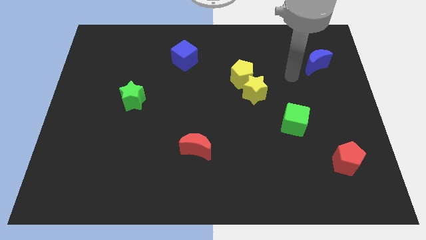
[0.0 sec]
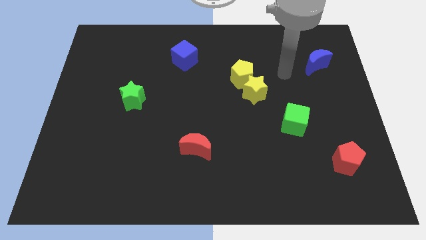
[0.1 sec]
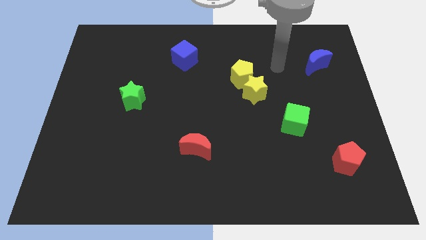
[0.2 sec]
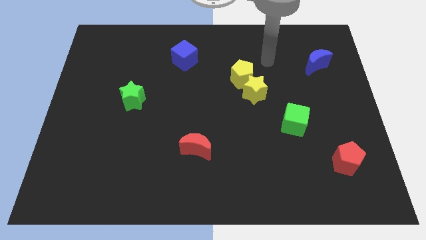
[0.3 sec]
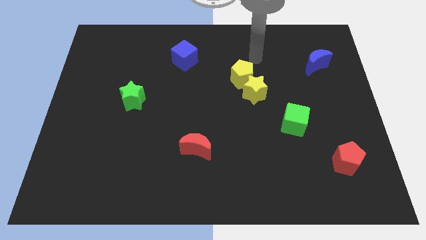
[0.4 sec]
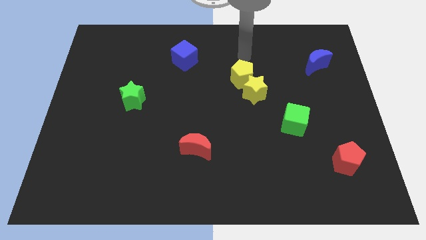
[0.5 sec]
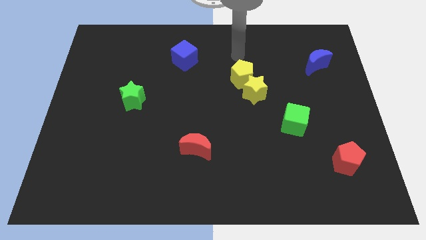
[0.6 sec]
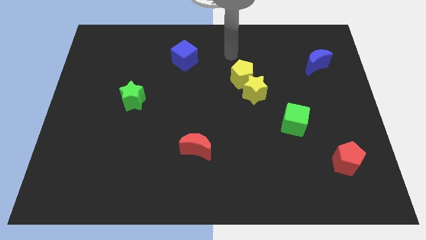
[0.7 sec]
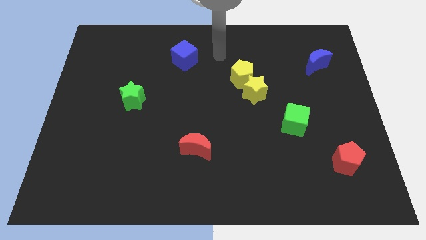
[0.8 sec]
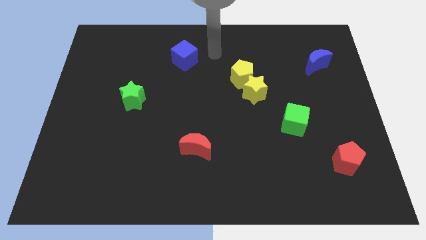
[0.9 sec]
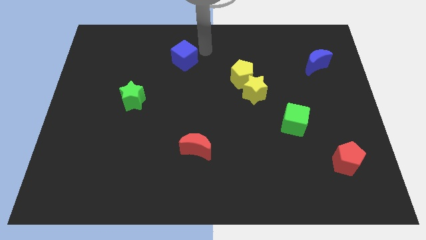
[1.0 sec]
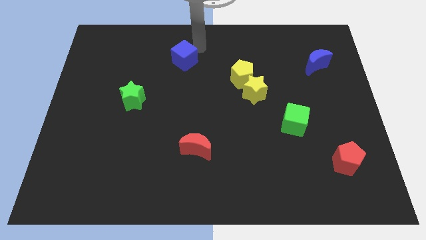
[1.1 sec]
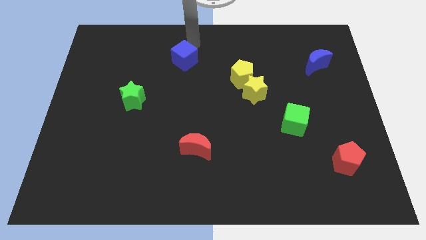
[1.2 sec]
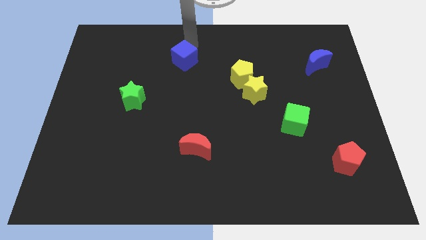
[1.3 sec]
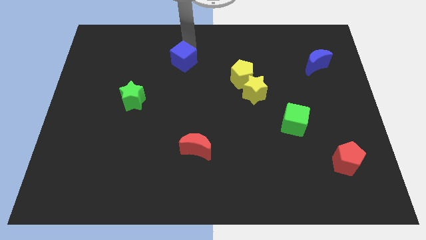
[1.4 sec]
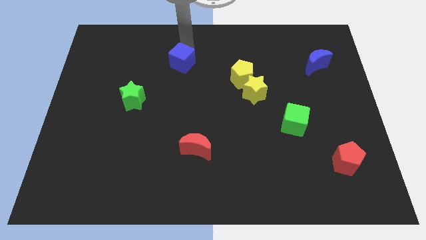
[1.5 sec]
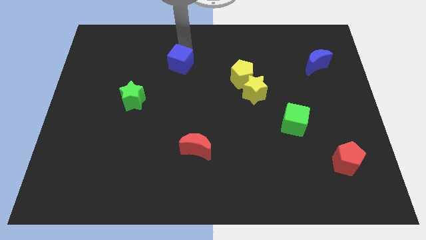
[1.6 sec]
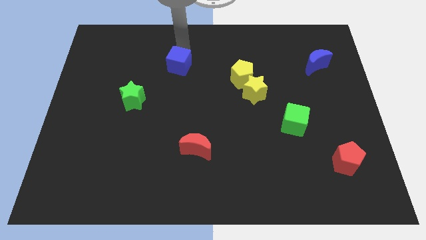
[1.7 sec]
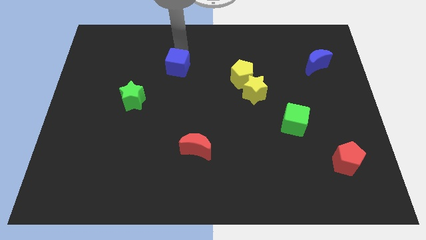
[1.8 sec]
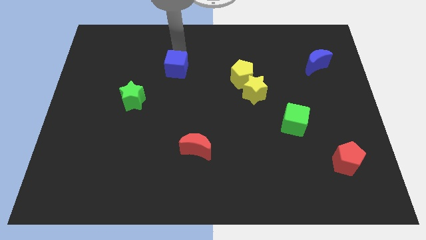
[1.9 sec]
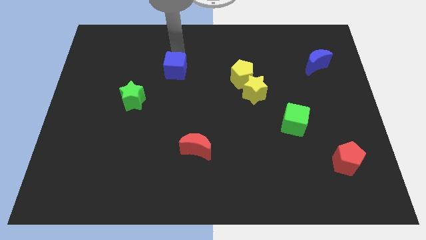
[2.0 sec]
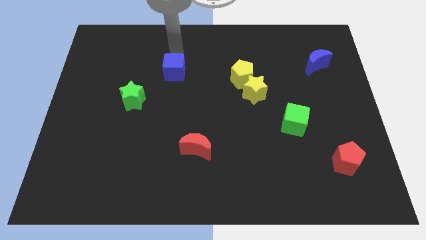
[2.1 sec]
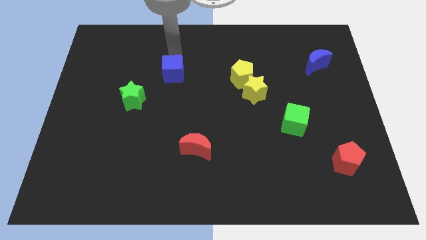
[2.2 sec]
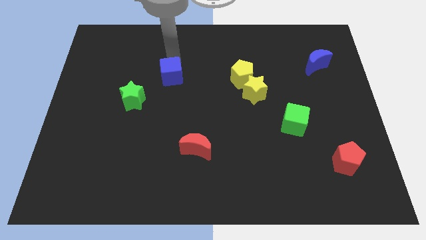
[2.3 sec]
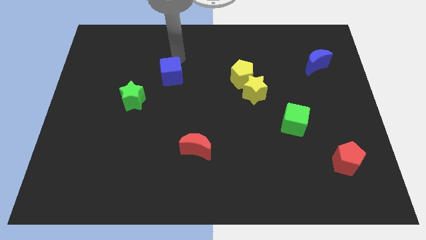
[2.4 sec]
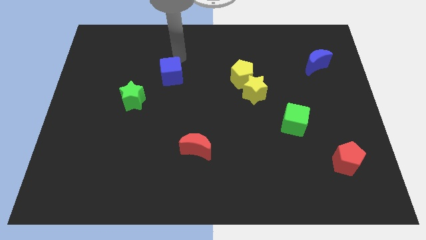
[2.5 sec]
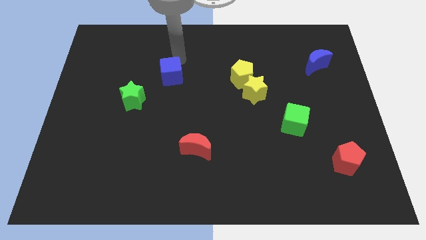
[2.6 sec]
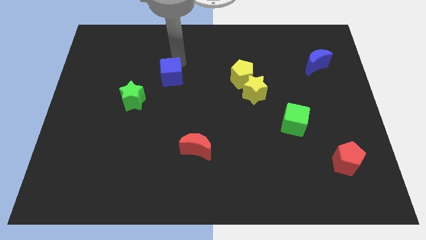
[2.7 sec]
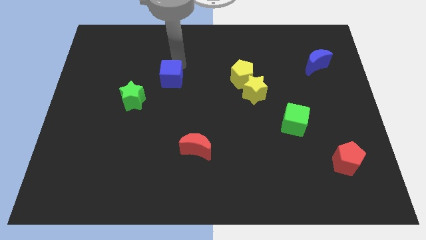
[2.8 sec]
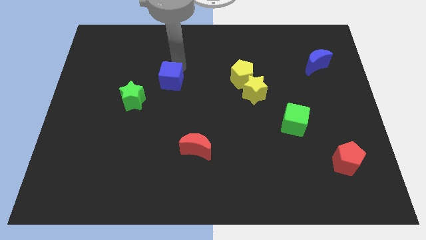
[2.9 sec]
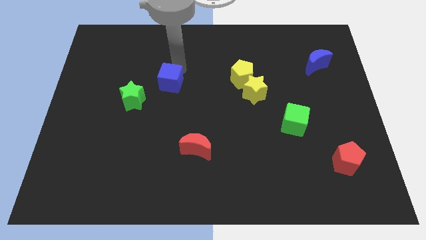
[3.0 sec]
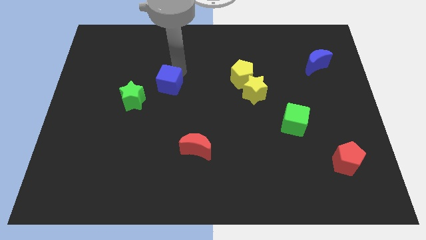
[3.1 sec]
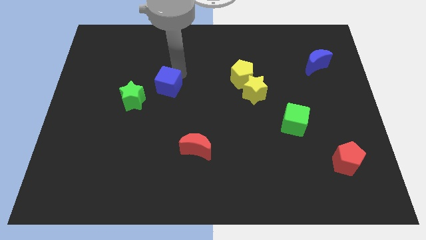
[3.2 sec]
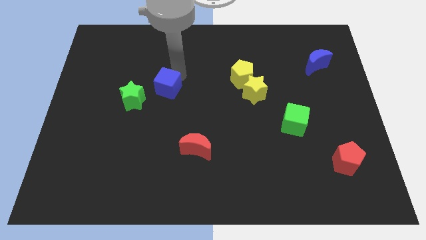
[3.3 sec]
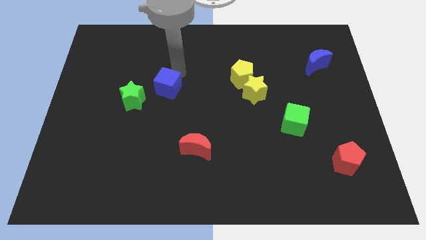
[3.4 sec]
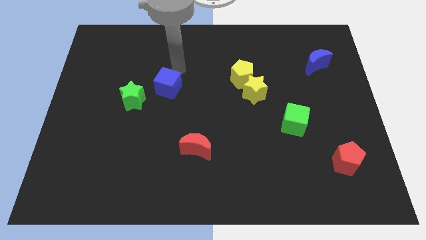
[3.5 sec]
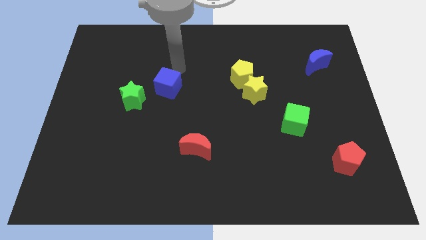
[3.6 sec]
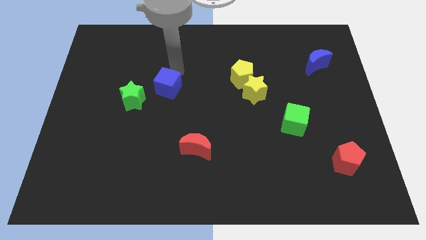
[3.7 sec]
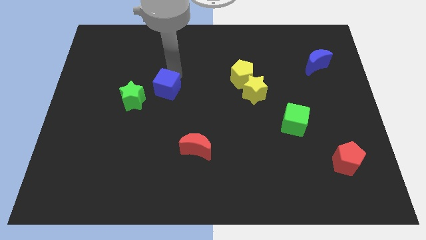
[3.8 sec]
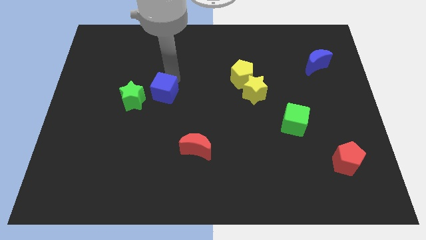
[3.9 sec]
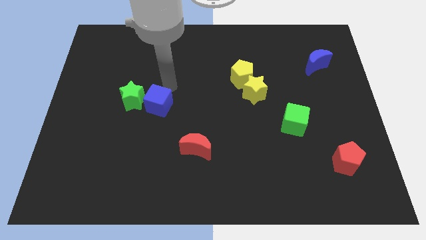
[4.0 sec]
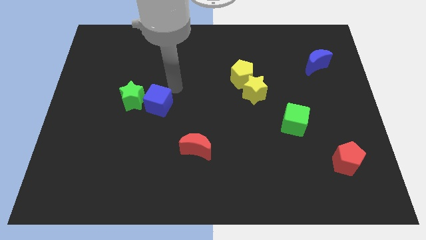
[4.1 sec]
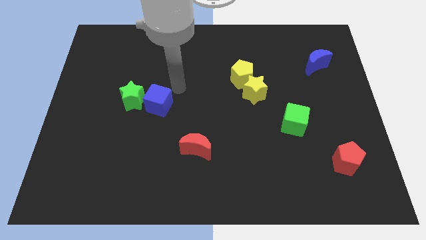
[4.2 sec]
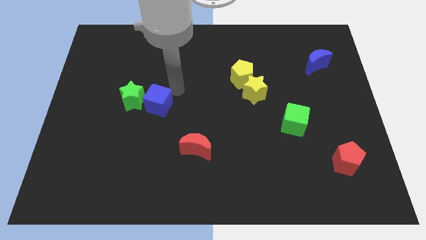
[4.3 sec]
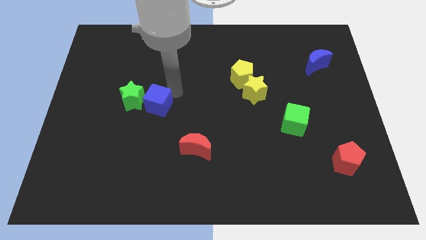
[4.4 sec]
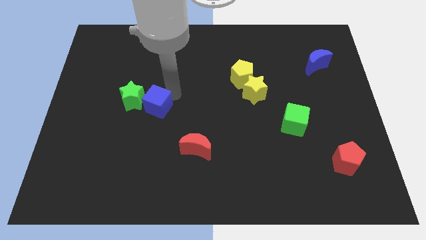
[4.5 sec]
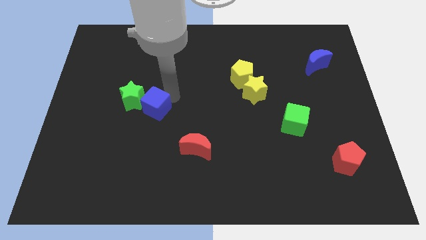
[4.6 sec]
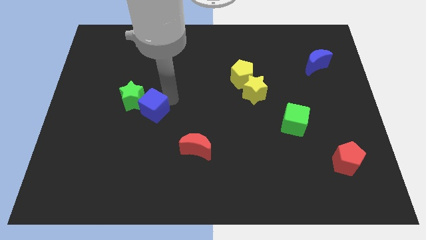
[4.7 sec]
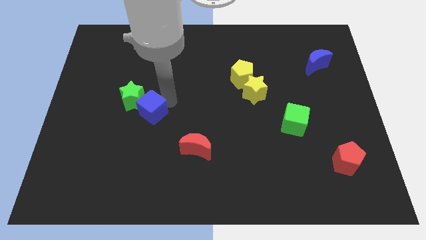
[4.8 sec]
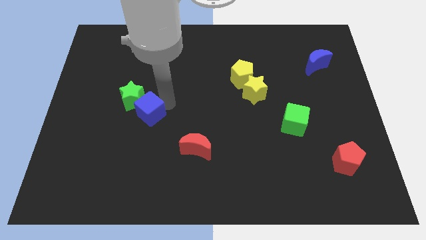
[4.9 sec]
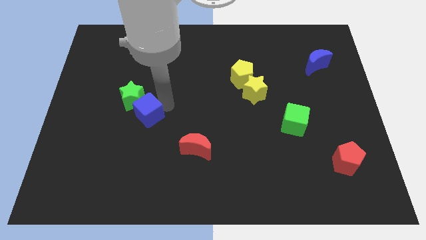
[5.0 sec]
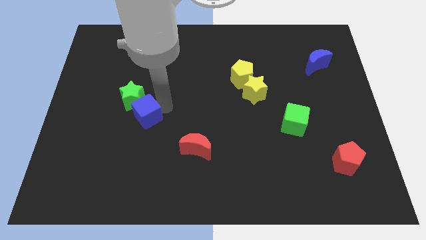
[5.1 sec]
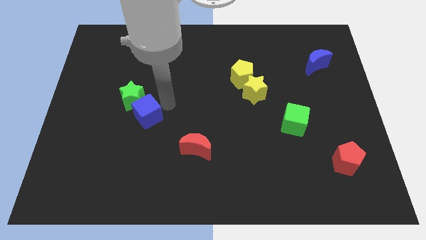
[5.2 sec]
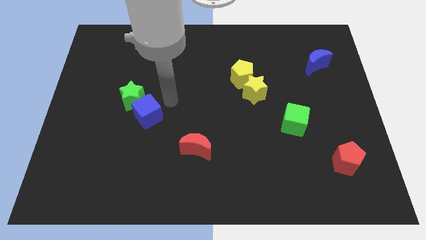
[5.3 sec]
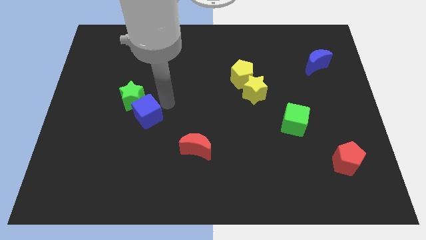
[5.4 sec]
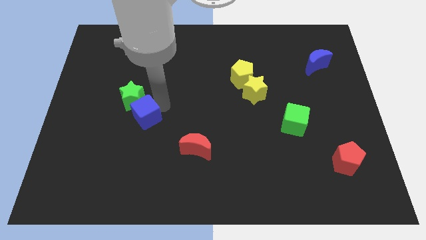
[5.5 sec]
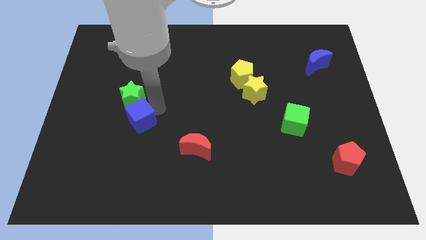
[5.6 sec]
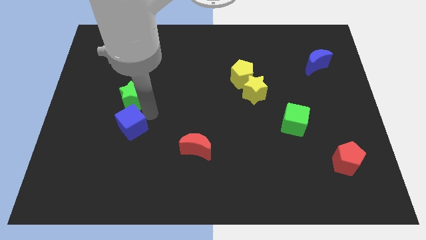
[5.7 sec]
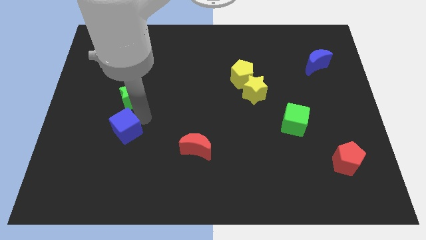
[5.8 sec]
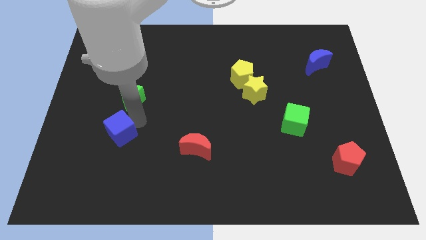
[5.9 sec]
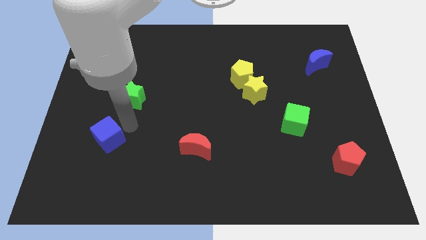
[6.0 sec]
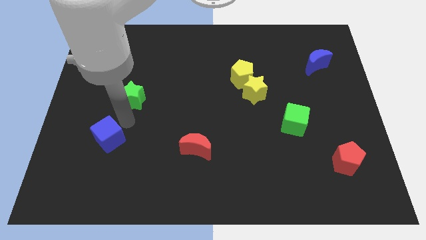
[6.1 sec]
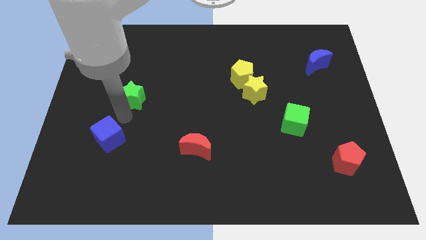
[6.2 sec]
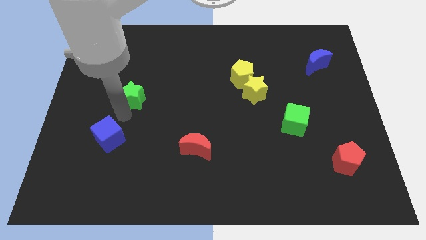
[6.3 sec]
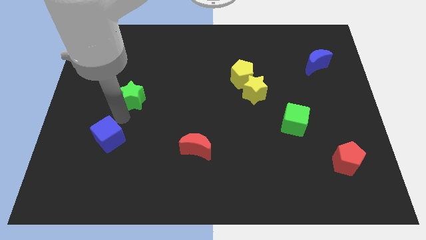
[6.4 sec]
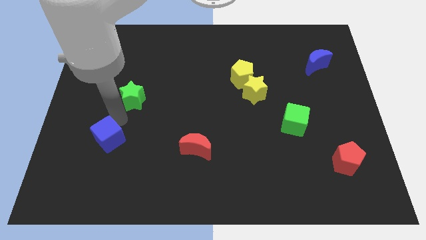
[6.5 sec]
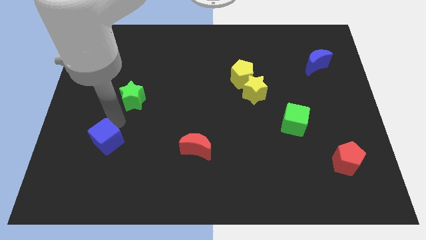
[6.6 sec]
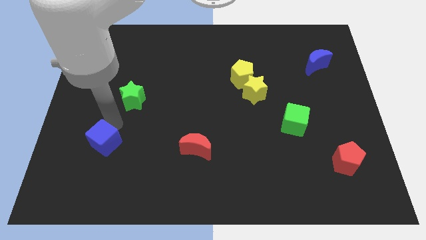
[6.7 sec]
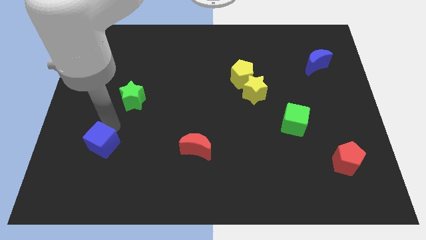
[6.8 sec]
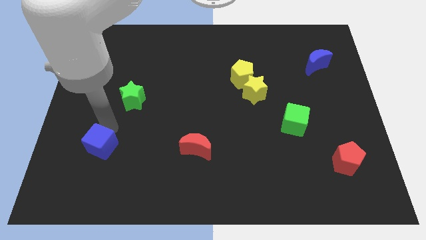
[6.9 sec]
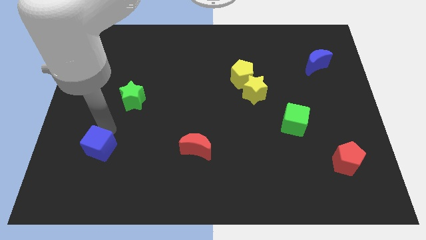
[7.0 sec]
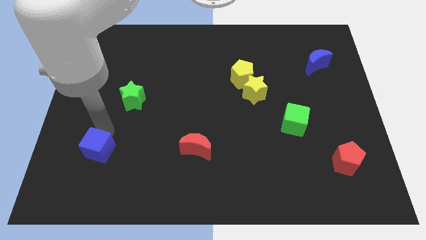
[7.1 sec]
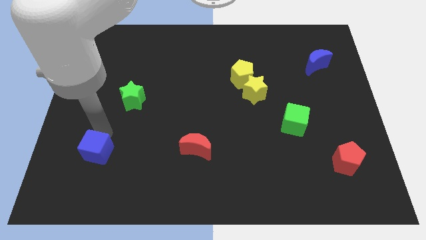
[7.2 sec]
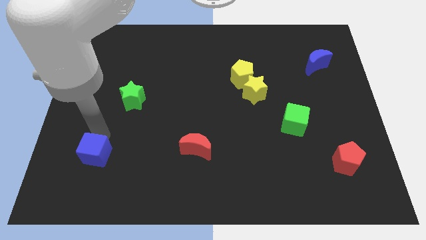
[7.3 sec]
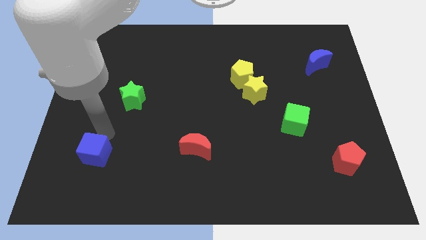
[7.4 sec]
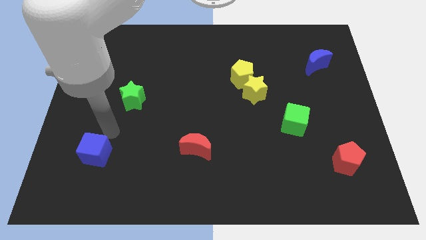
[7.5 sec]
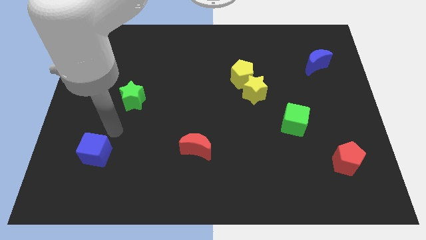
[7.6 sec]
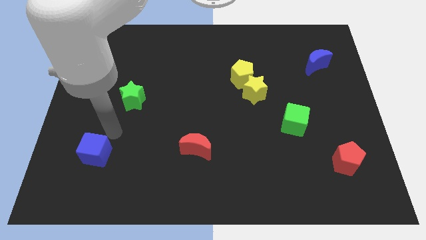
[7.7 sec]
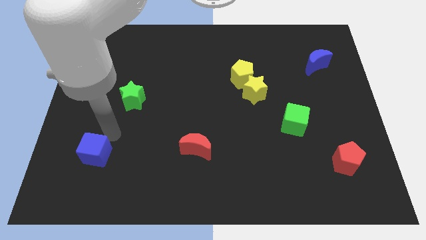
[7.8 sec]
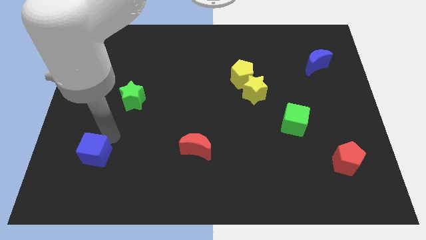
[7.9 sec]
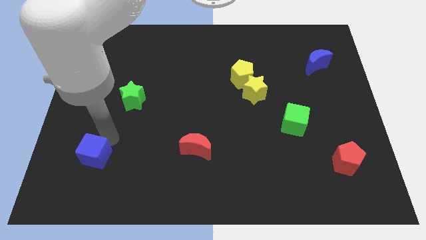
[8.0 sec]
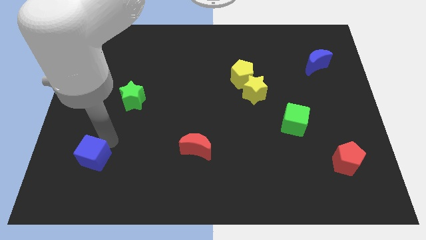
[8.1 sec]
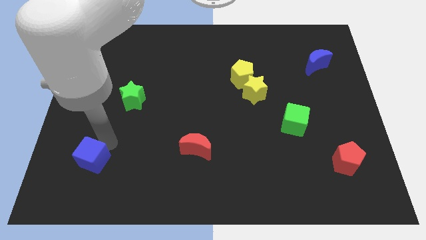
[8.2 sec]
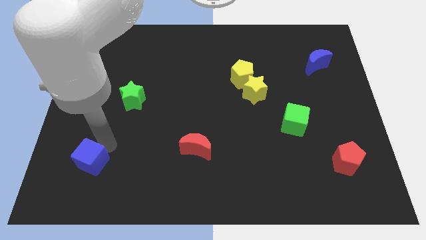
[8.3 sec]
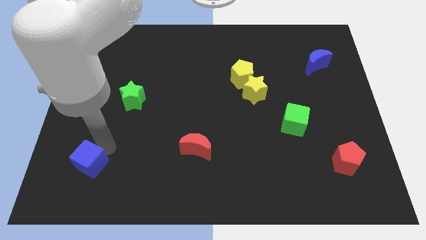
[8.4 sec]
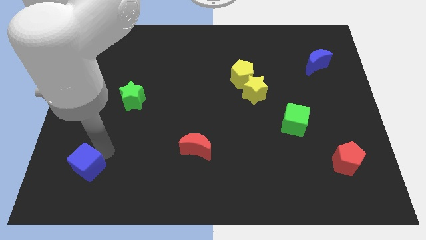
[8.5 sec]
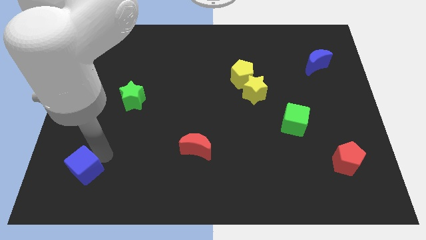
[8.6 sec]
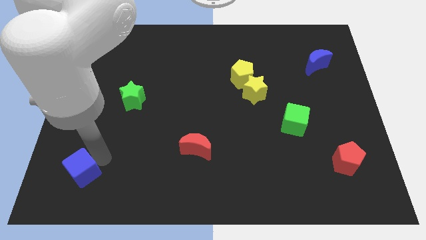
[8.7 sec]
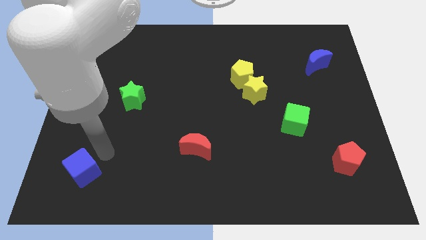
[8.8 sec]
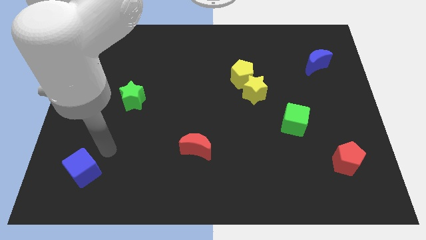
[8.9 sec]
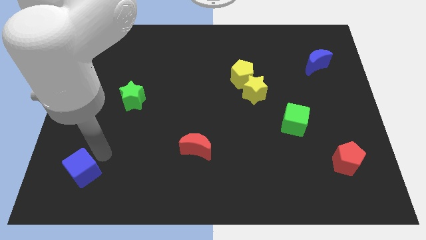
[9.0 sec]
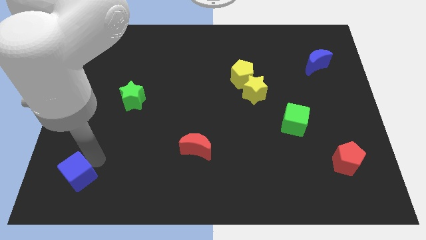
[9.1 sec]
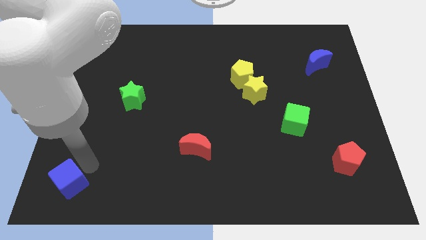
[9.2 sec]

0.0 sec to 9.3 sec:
slide the blue cube to the bottom left
